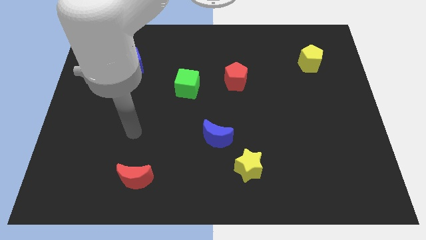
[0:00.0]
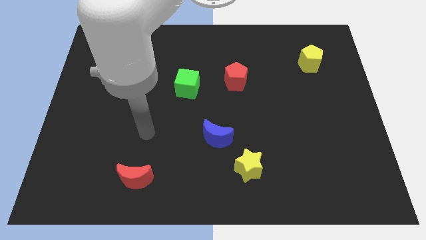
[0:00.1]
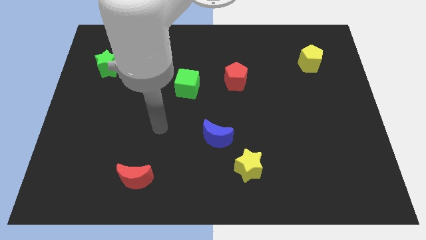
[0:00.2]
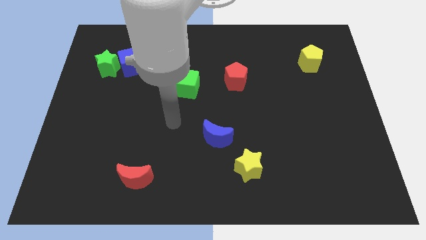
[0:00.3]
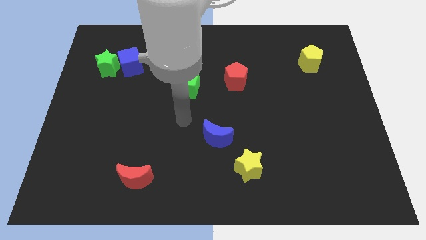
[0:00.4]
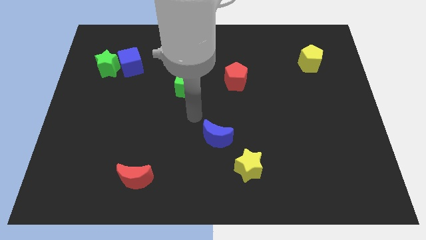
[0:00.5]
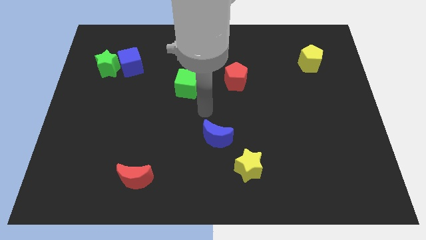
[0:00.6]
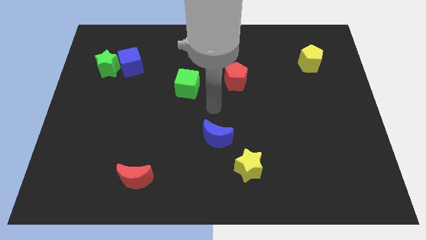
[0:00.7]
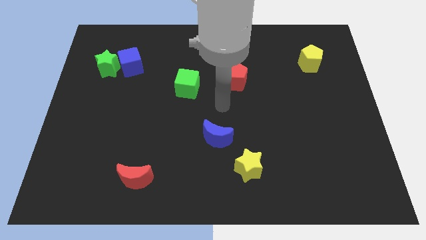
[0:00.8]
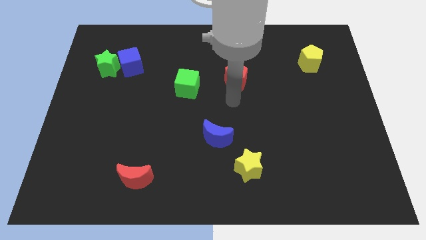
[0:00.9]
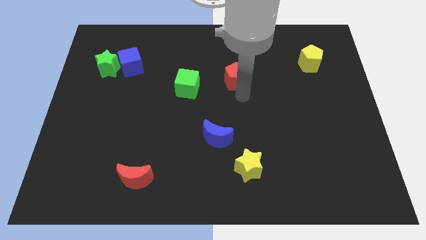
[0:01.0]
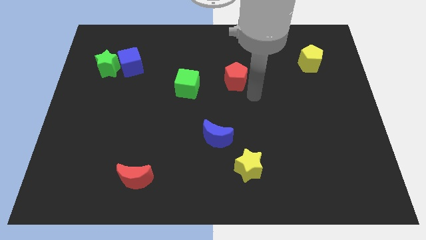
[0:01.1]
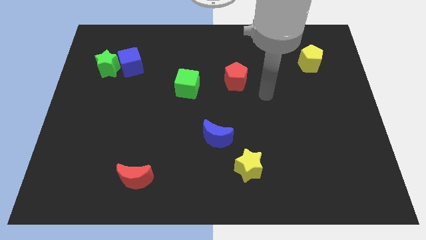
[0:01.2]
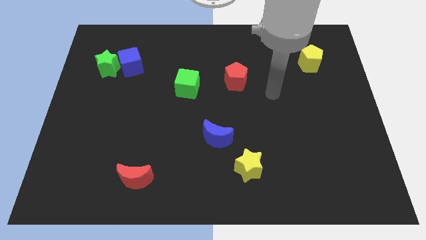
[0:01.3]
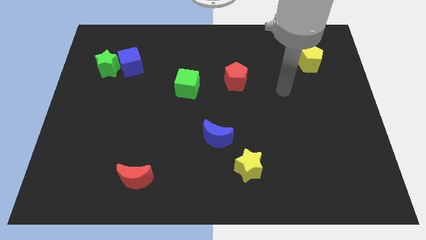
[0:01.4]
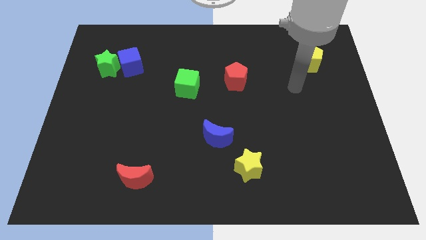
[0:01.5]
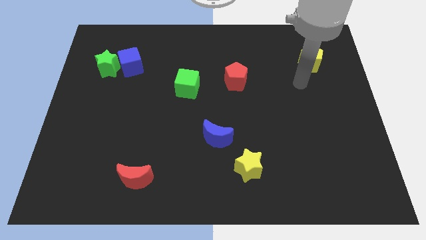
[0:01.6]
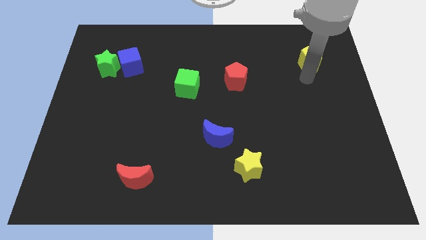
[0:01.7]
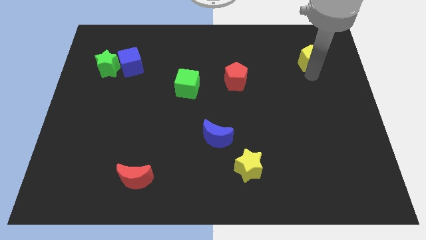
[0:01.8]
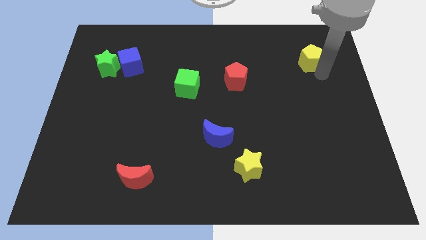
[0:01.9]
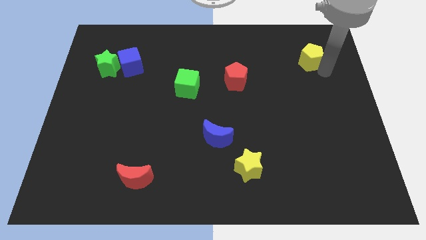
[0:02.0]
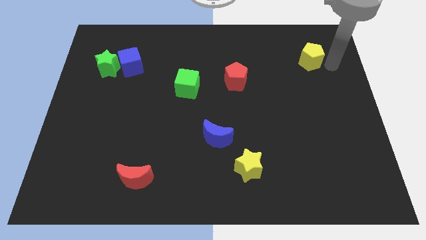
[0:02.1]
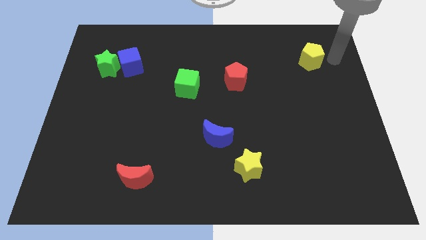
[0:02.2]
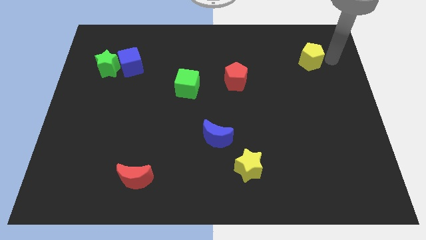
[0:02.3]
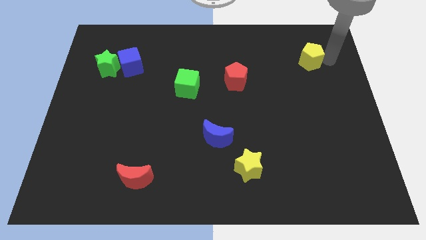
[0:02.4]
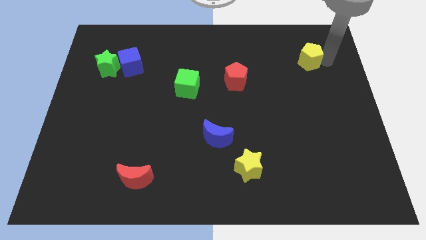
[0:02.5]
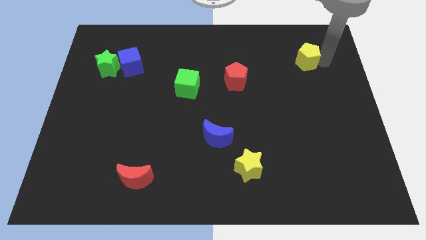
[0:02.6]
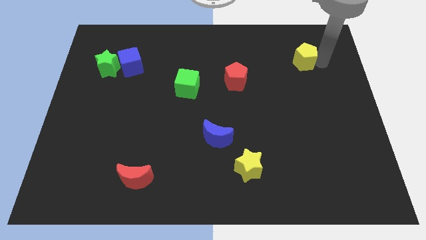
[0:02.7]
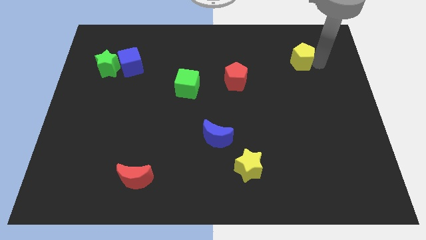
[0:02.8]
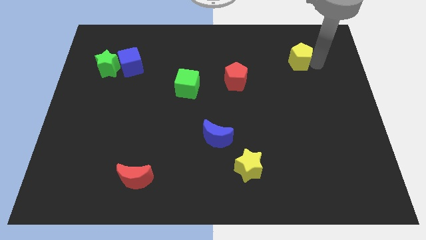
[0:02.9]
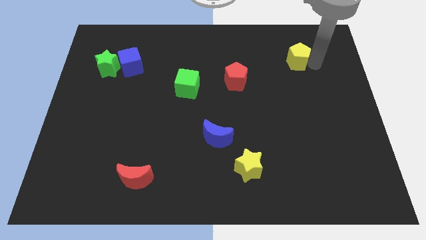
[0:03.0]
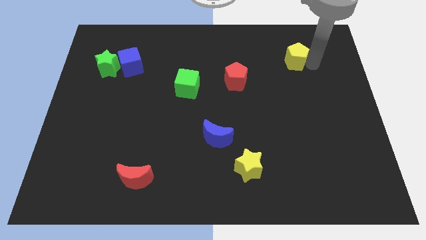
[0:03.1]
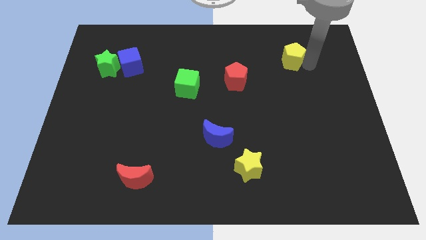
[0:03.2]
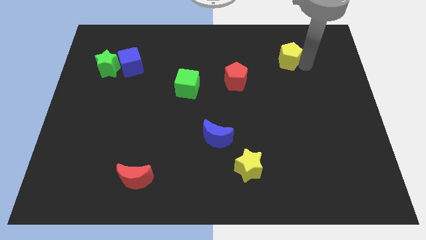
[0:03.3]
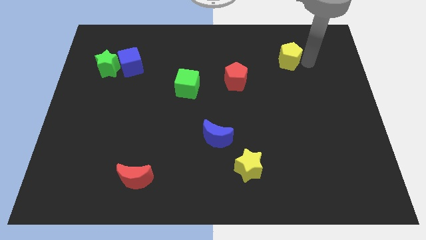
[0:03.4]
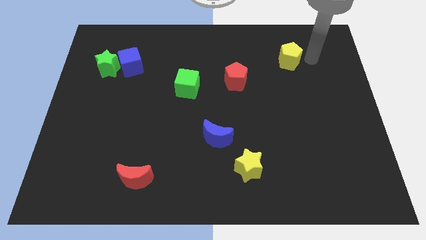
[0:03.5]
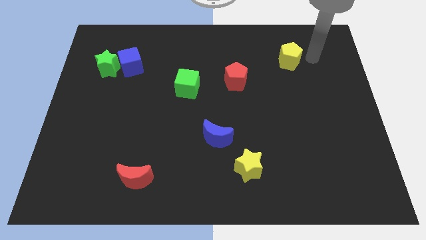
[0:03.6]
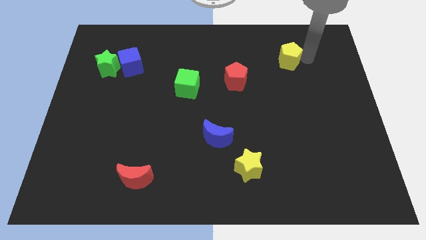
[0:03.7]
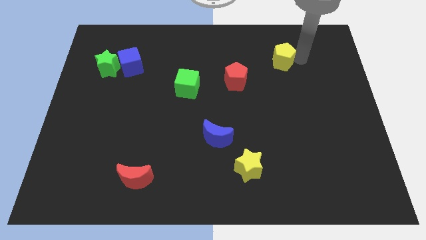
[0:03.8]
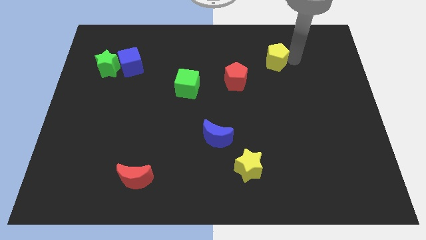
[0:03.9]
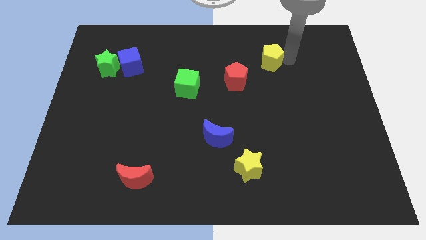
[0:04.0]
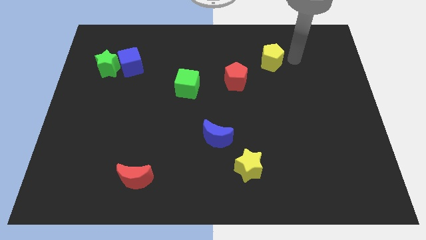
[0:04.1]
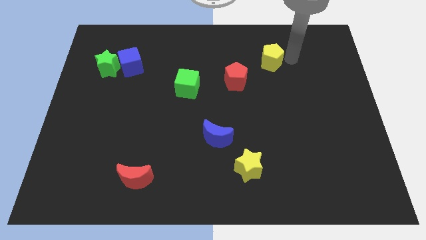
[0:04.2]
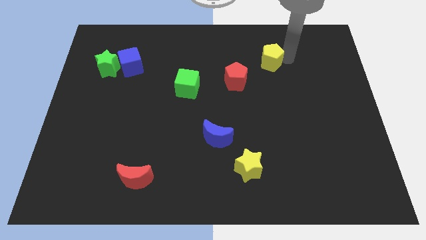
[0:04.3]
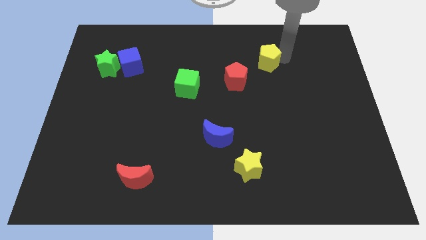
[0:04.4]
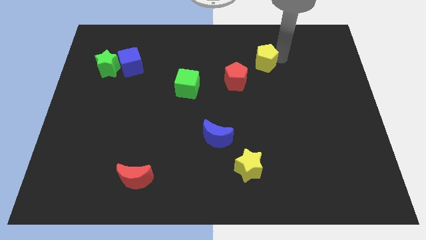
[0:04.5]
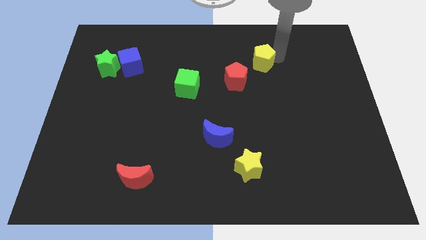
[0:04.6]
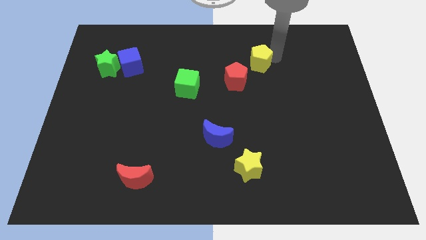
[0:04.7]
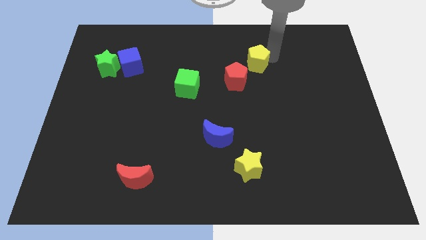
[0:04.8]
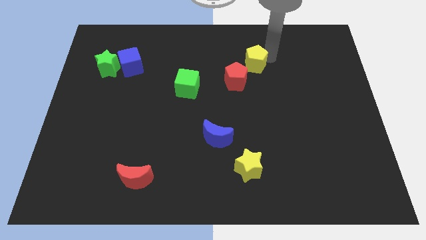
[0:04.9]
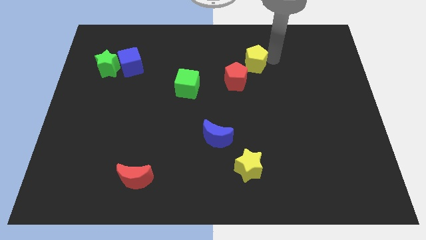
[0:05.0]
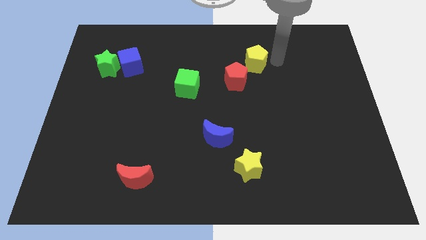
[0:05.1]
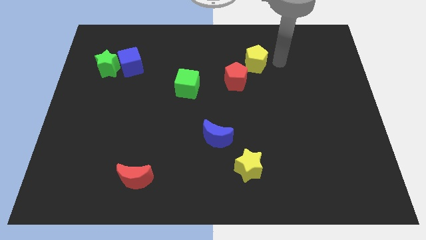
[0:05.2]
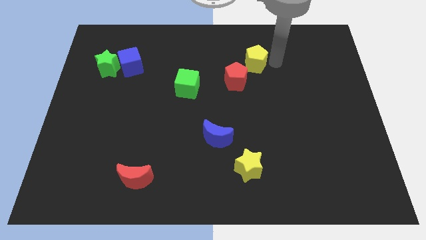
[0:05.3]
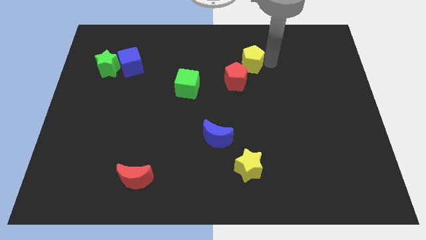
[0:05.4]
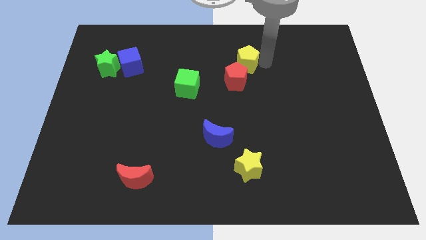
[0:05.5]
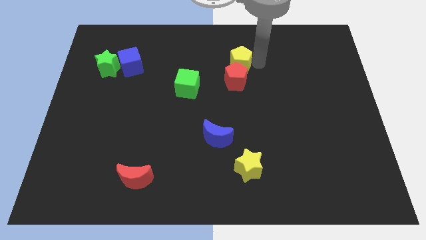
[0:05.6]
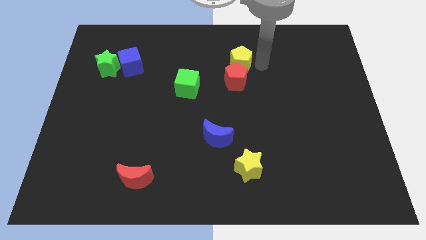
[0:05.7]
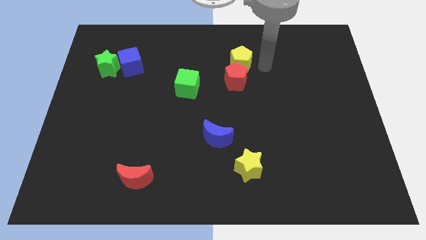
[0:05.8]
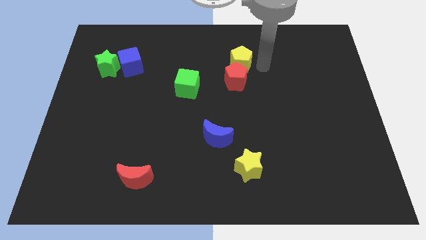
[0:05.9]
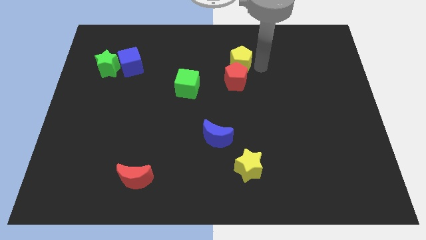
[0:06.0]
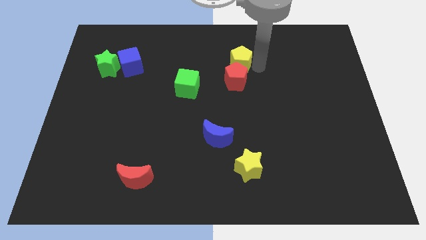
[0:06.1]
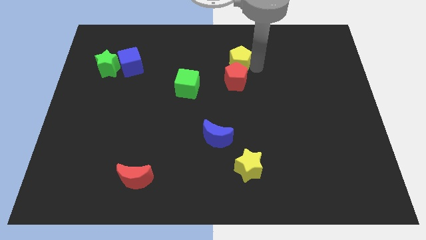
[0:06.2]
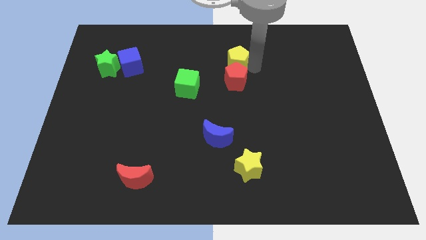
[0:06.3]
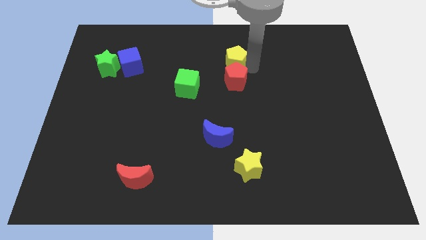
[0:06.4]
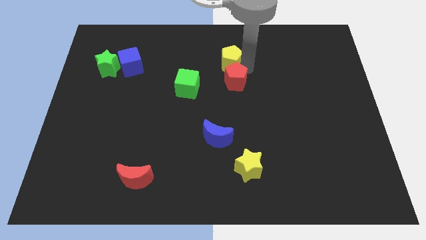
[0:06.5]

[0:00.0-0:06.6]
slide the yellow pentagon to the left

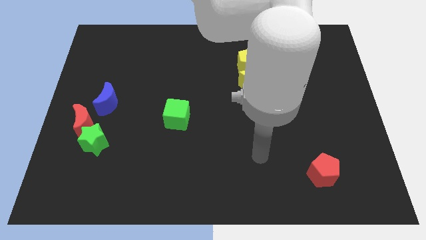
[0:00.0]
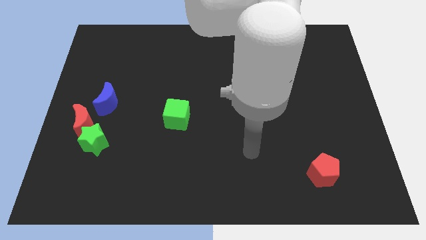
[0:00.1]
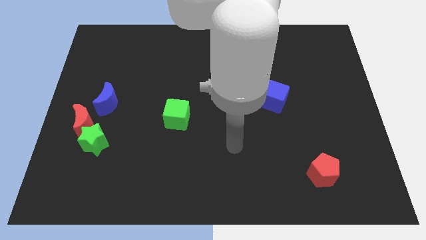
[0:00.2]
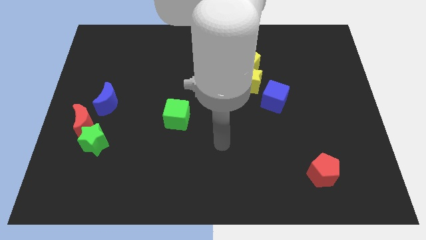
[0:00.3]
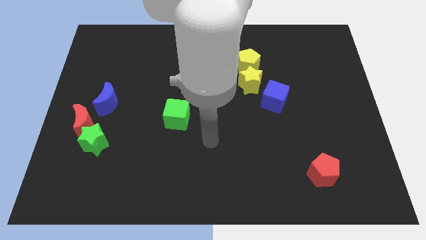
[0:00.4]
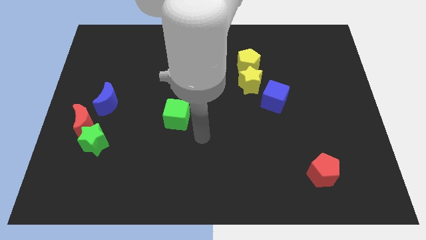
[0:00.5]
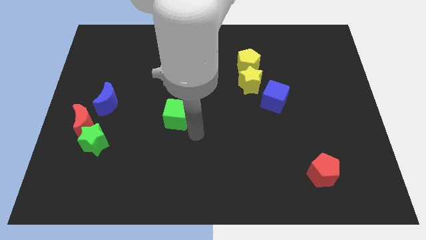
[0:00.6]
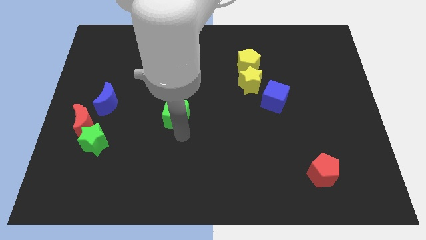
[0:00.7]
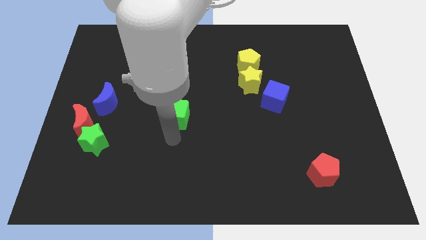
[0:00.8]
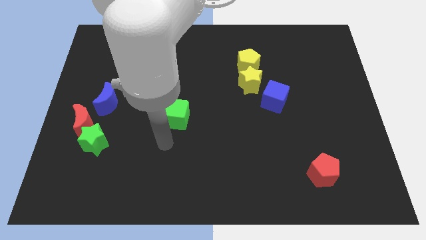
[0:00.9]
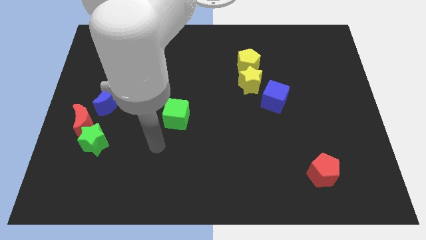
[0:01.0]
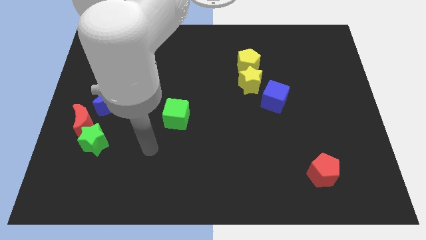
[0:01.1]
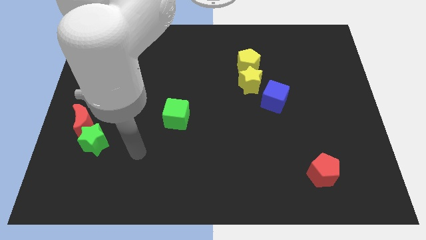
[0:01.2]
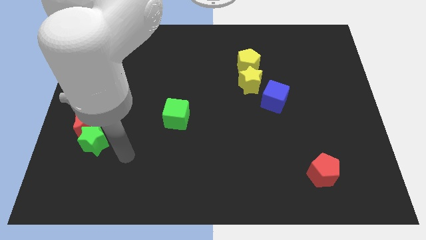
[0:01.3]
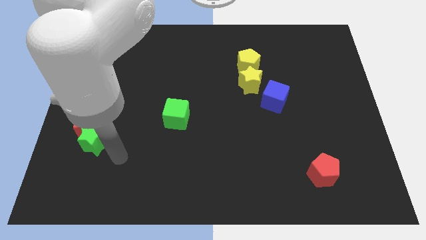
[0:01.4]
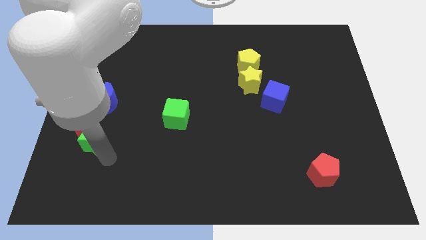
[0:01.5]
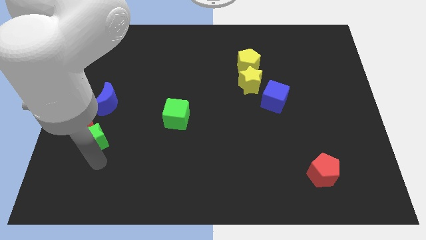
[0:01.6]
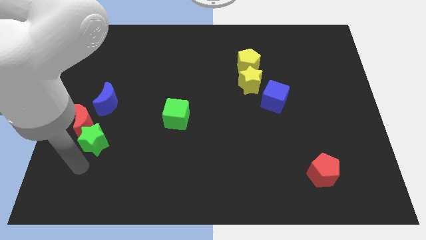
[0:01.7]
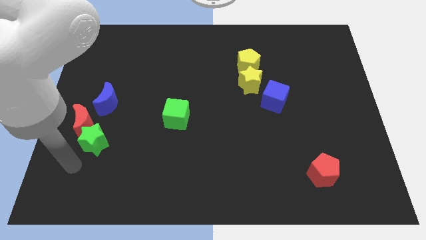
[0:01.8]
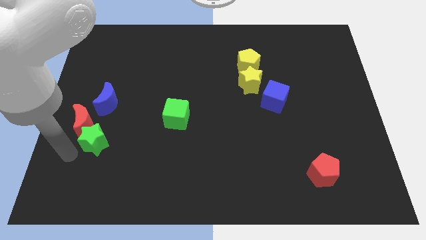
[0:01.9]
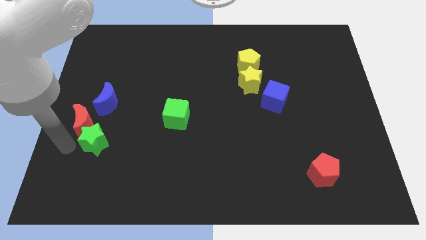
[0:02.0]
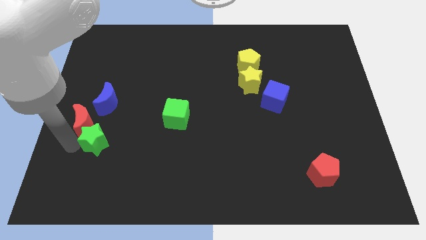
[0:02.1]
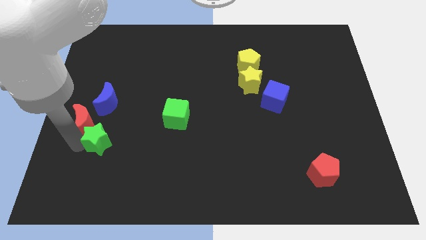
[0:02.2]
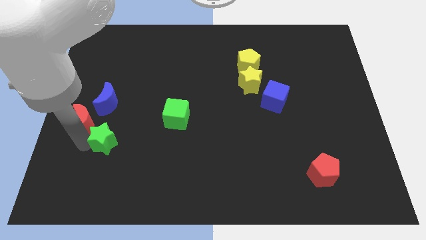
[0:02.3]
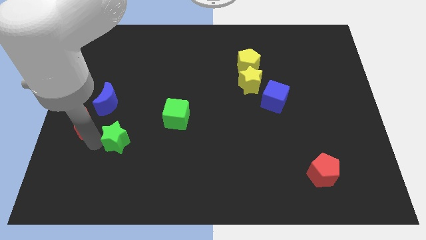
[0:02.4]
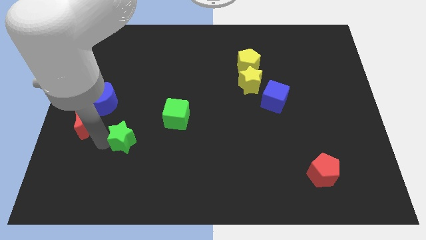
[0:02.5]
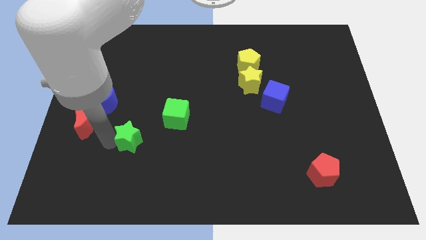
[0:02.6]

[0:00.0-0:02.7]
slightly move the green star right
